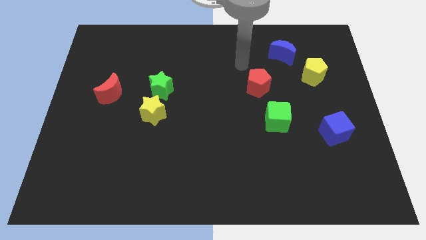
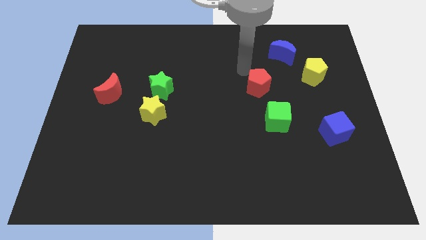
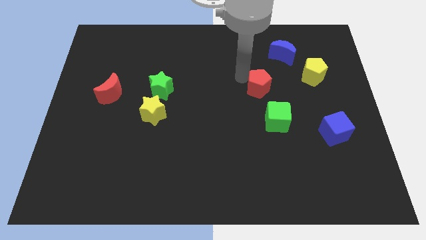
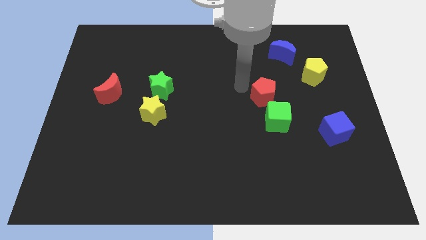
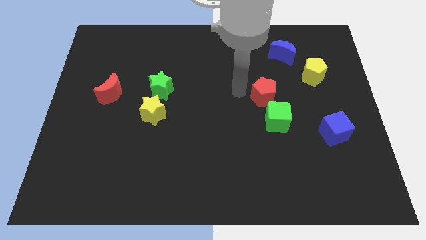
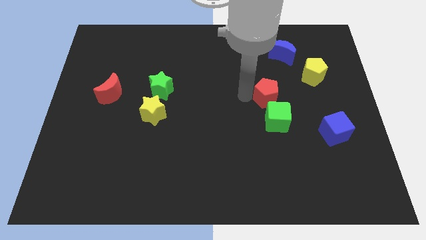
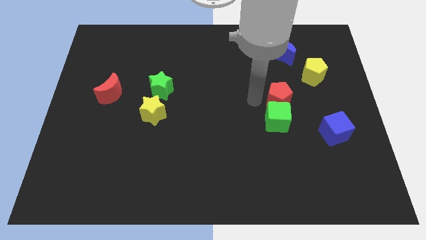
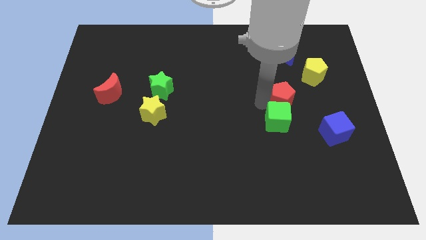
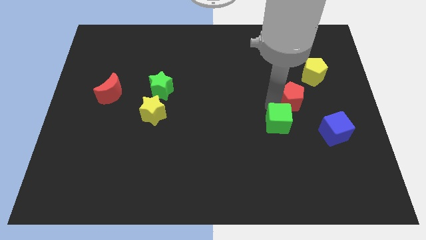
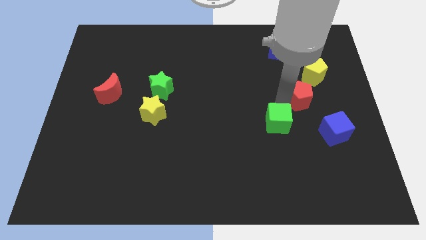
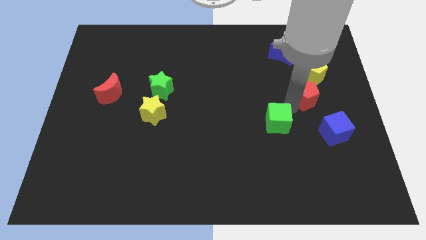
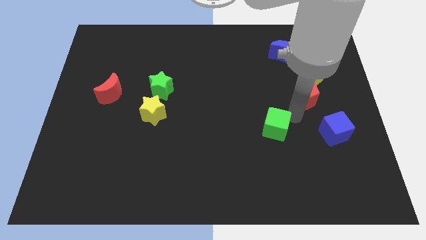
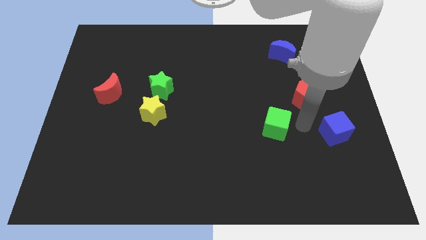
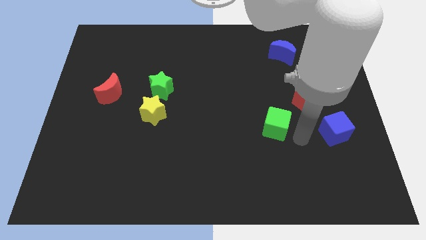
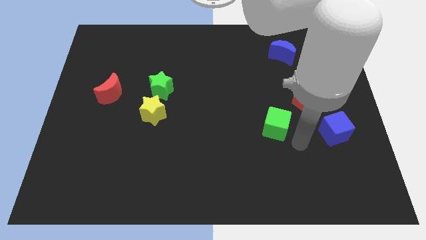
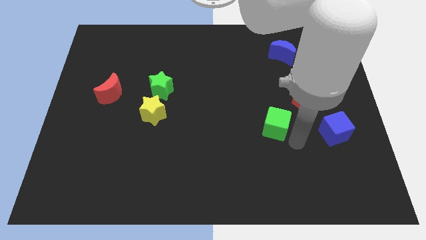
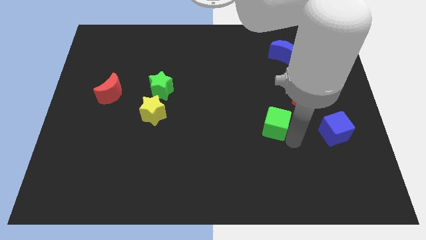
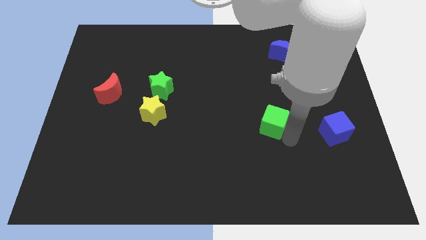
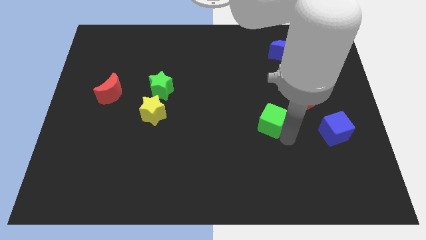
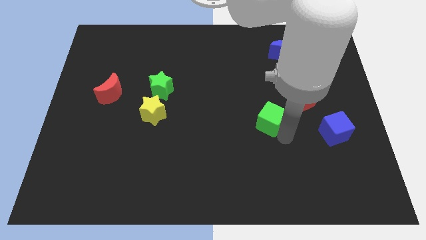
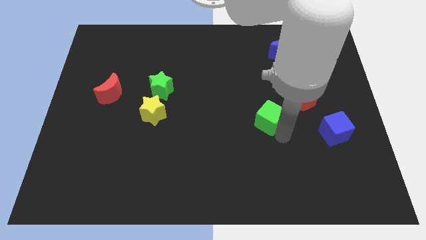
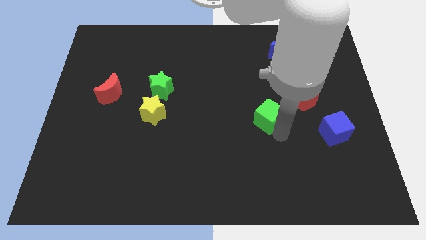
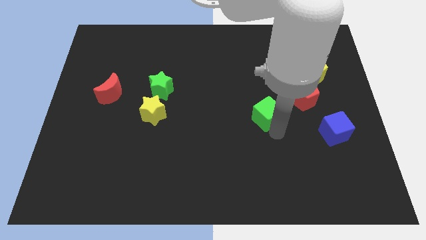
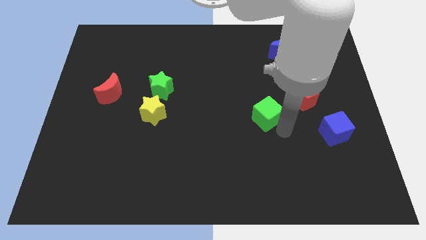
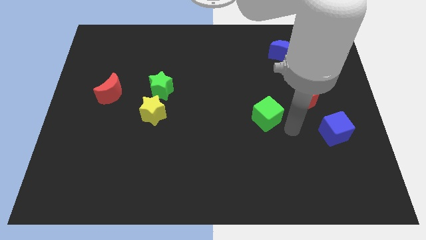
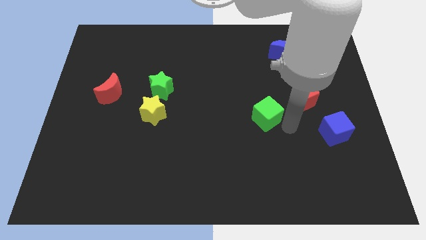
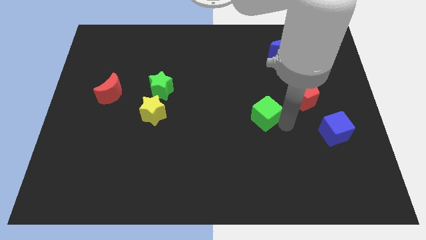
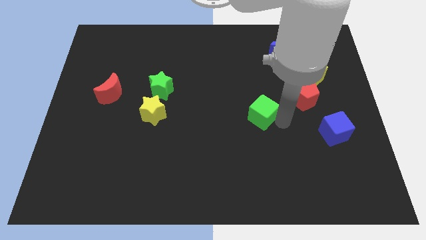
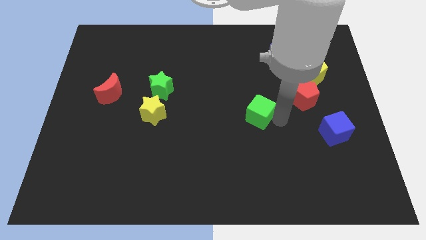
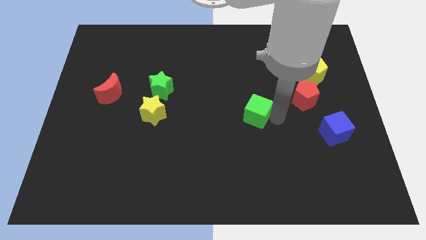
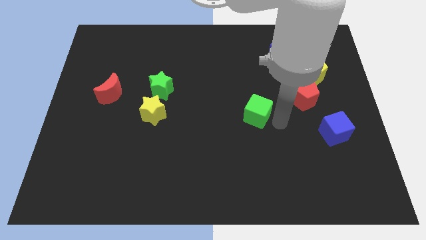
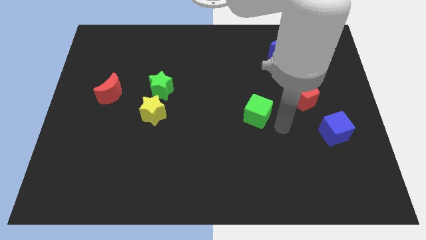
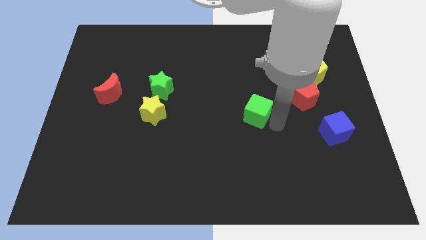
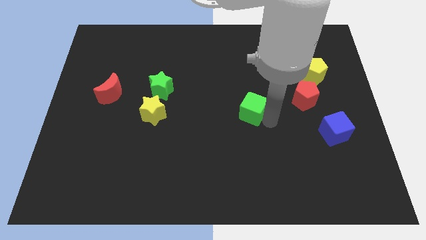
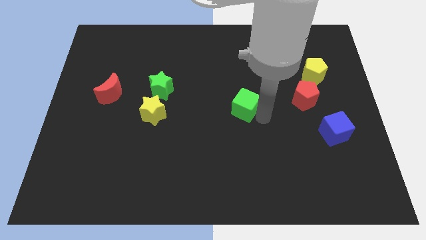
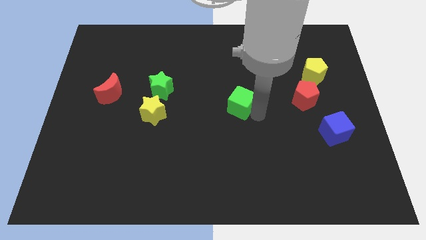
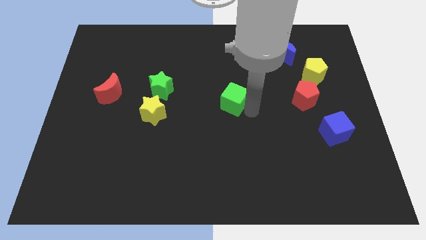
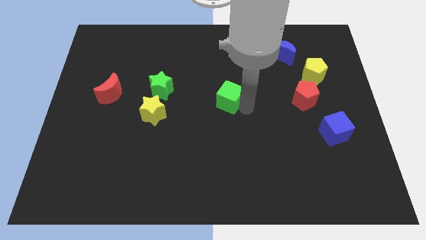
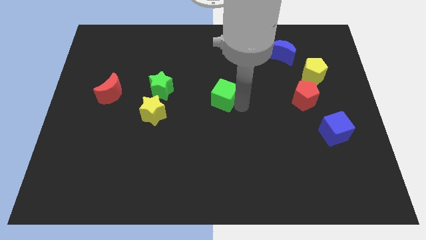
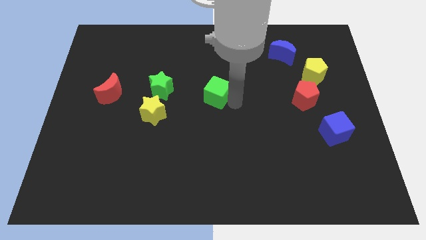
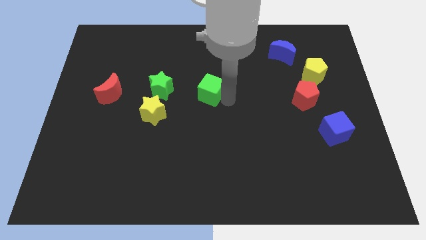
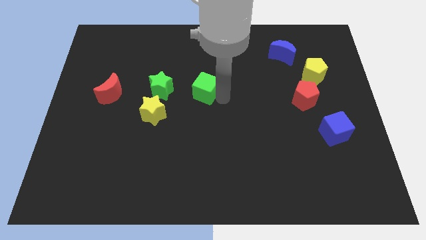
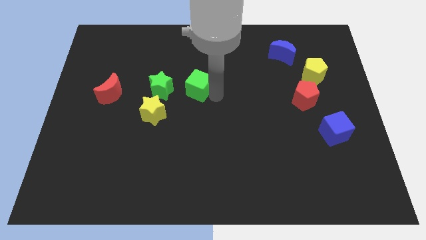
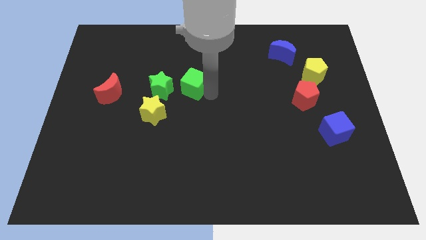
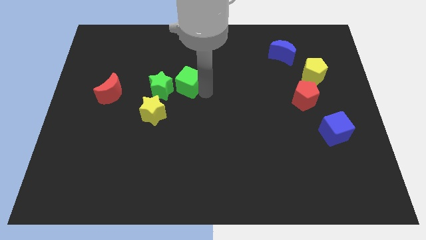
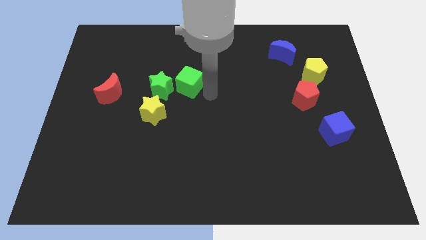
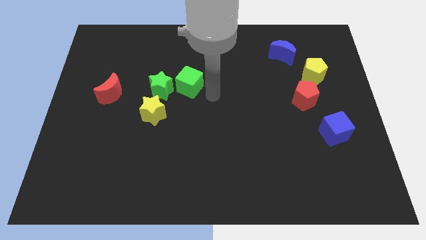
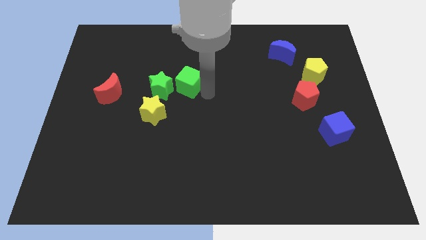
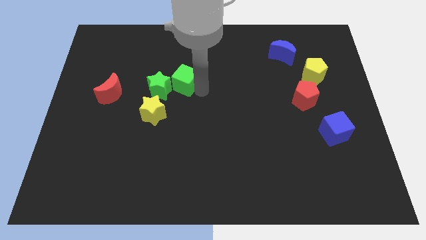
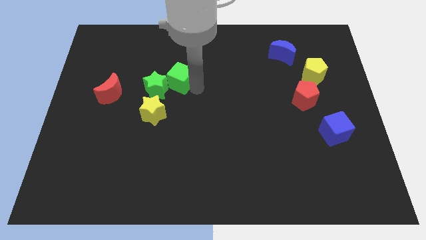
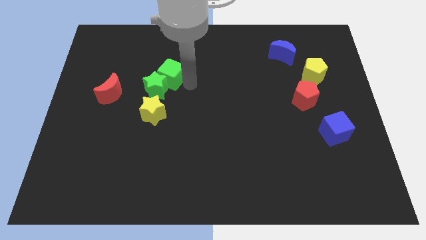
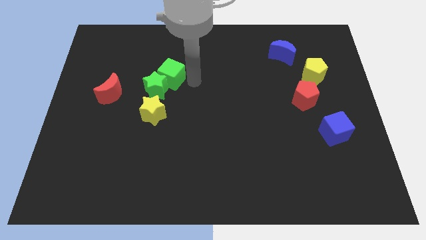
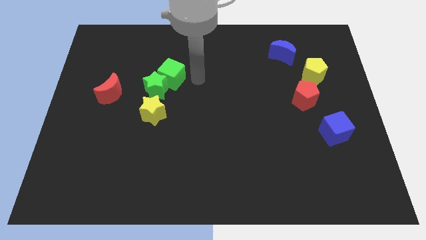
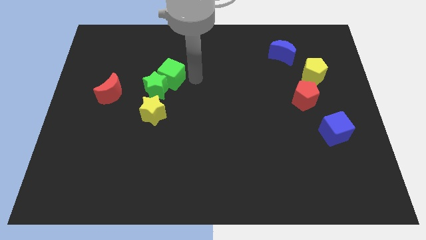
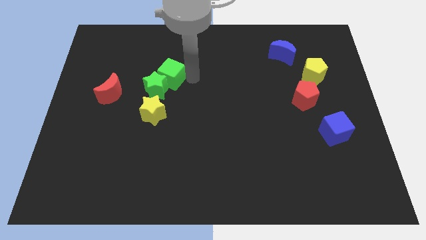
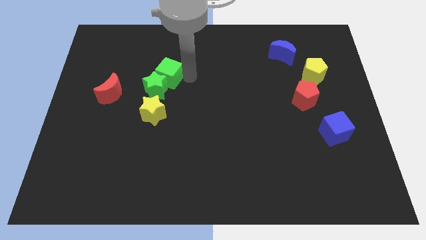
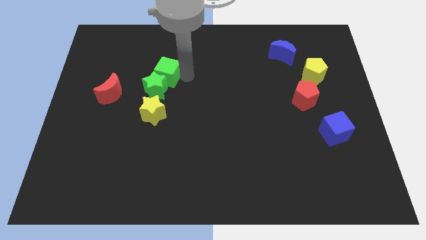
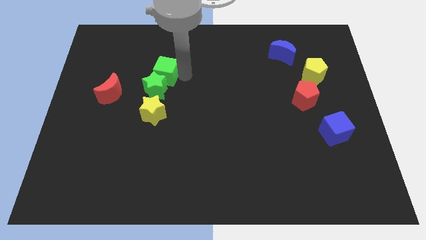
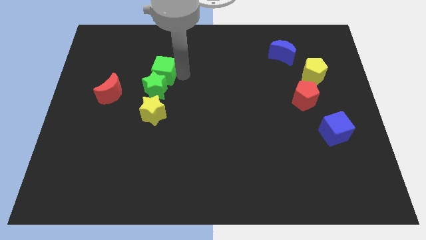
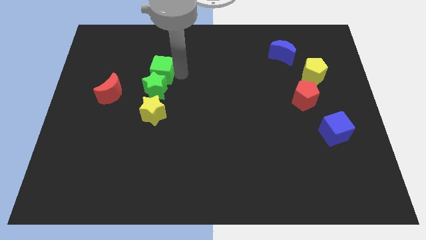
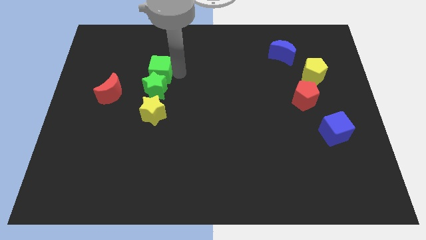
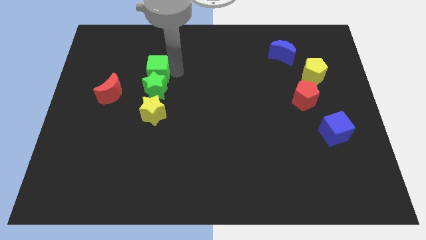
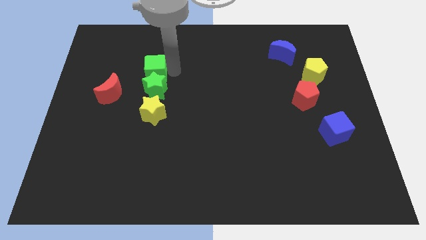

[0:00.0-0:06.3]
slide the green cube to the top right of the red moon

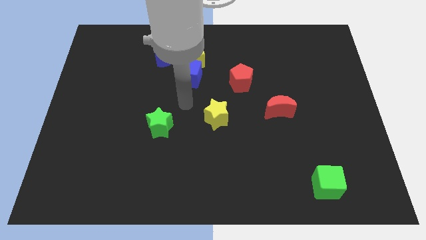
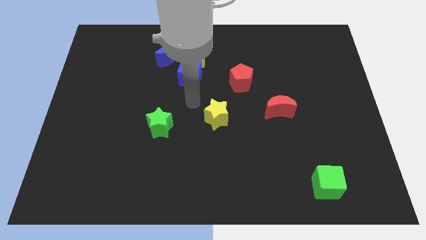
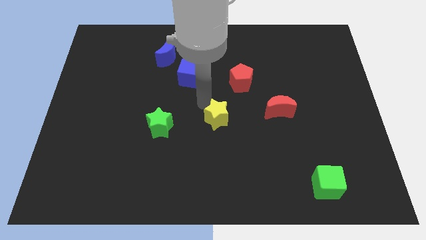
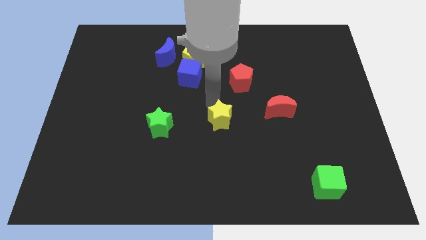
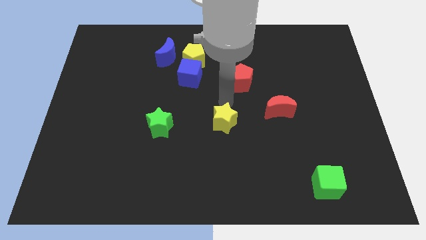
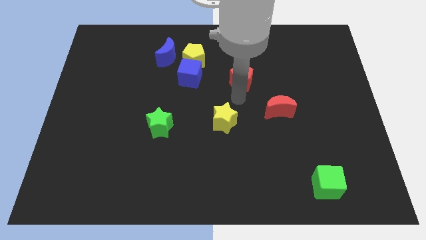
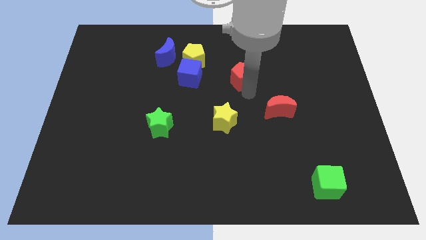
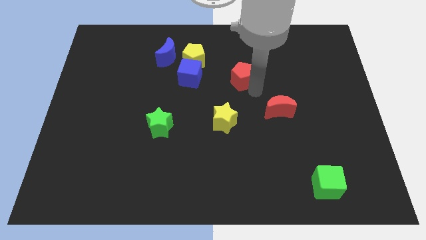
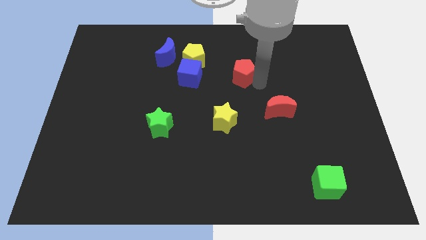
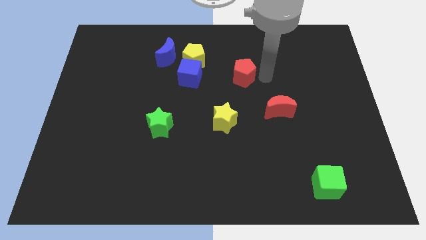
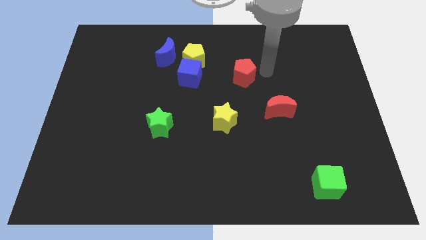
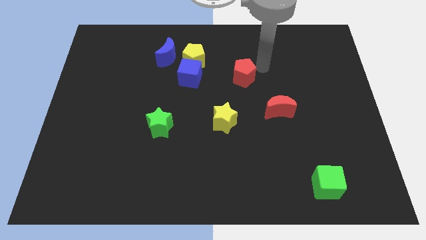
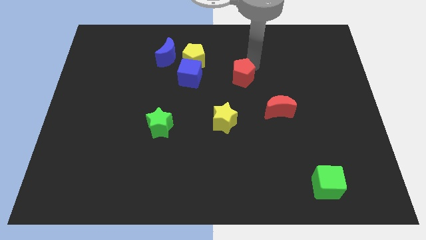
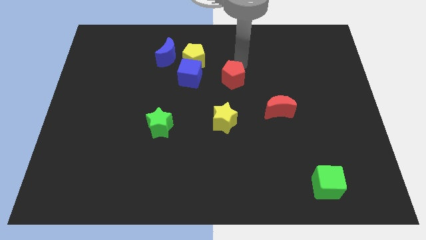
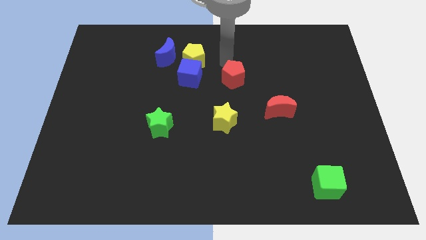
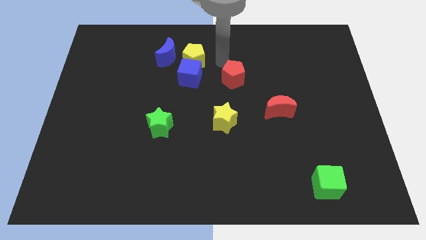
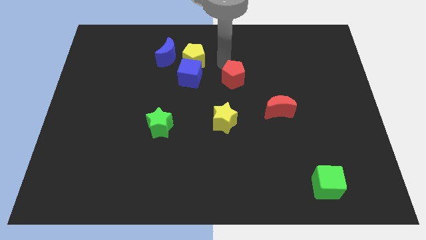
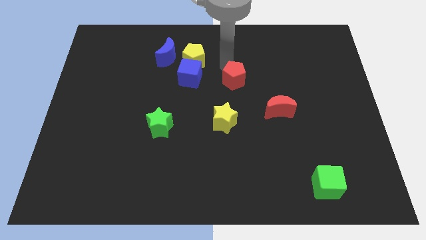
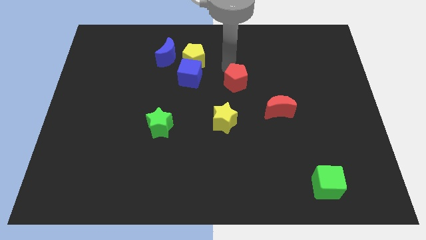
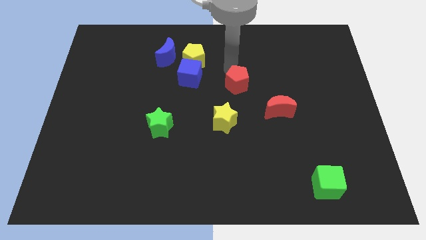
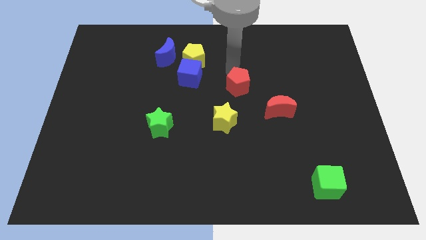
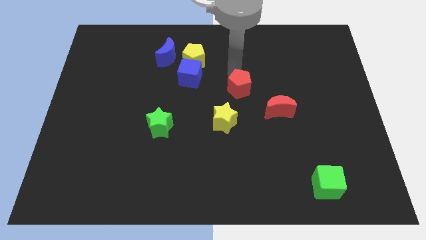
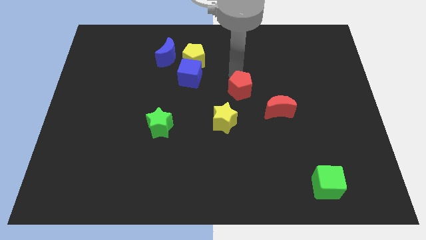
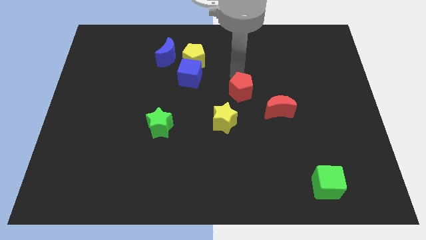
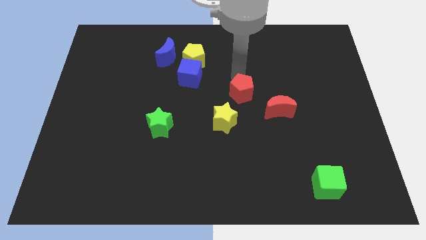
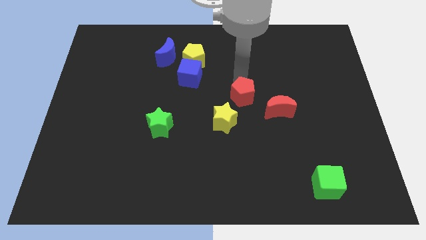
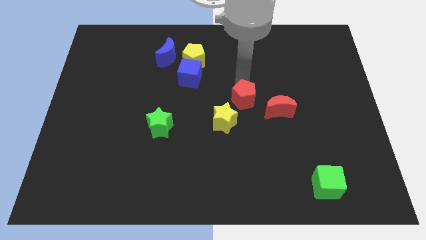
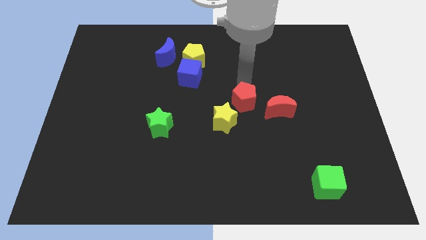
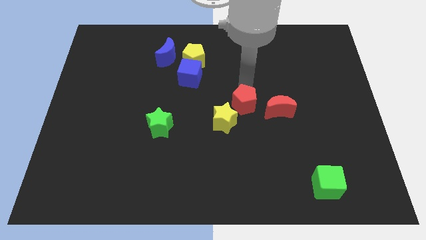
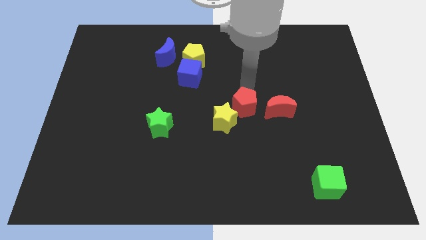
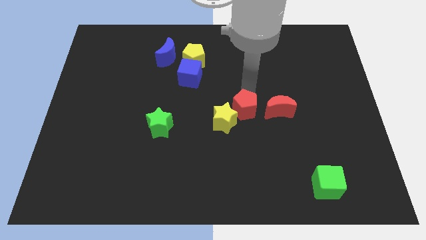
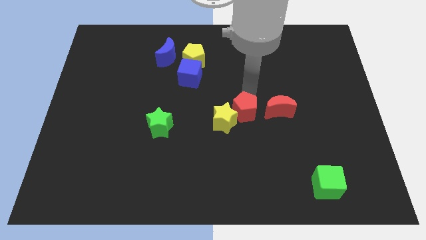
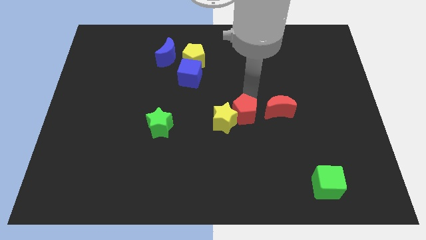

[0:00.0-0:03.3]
push the red pentagon to the bottom left of the red moon
